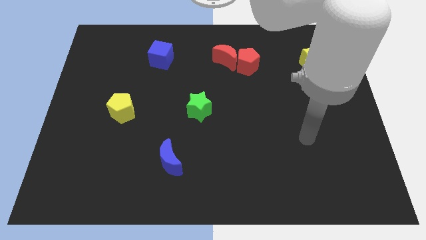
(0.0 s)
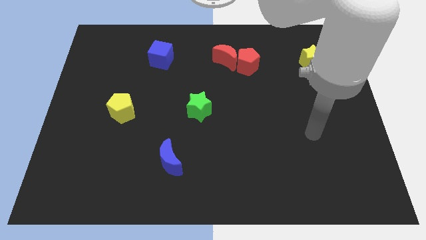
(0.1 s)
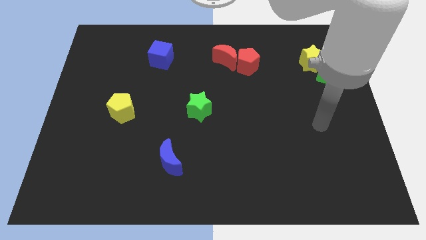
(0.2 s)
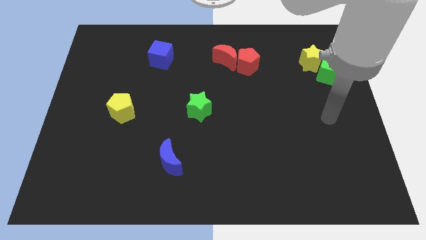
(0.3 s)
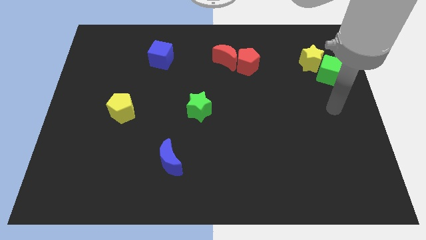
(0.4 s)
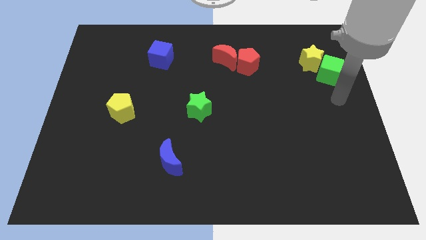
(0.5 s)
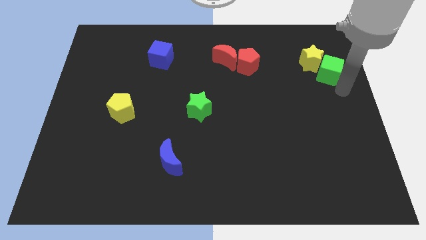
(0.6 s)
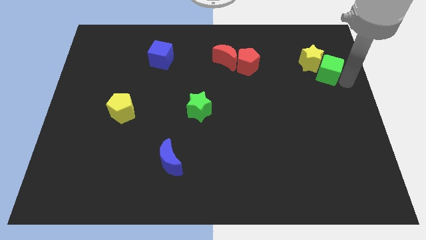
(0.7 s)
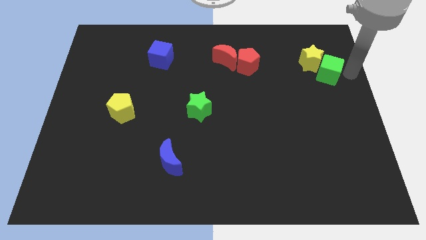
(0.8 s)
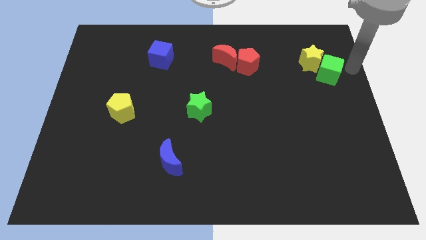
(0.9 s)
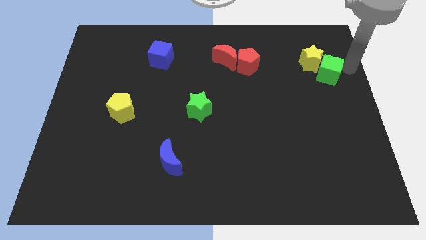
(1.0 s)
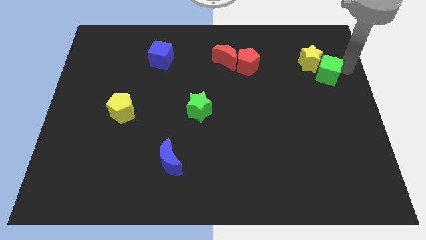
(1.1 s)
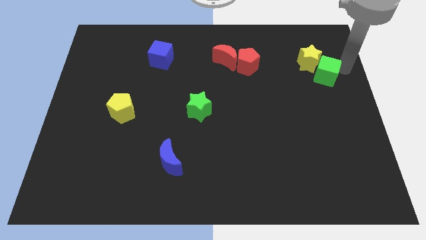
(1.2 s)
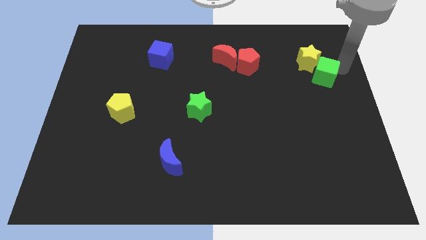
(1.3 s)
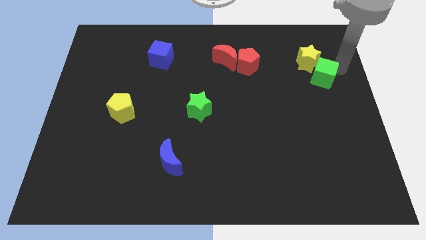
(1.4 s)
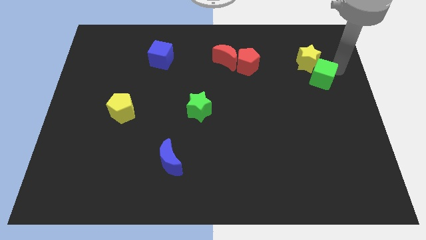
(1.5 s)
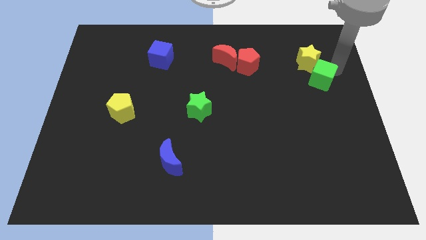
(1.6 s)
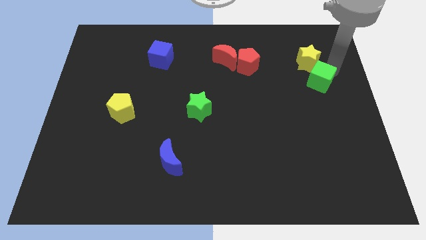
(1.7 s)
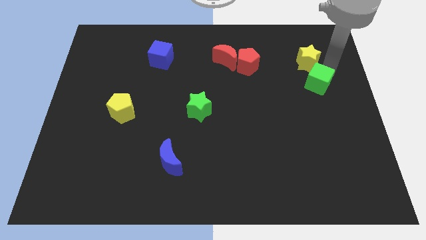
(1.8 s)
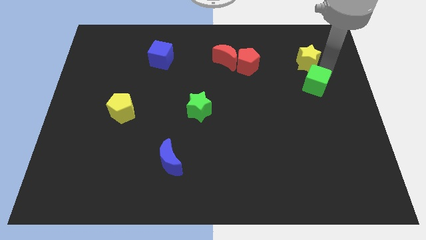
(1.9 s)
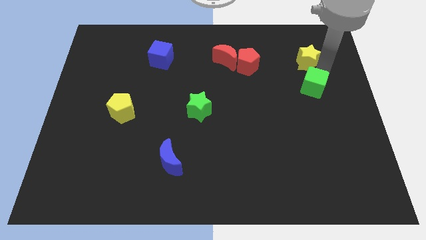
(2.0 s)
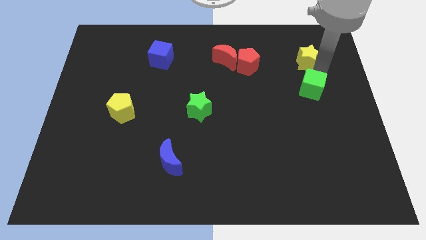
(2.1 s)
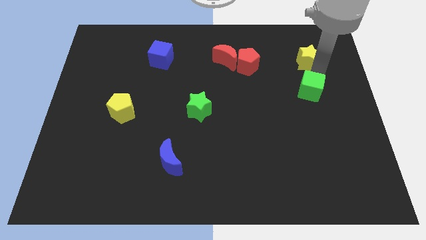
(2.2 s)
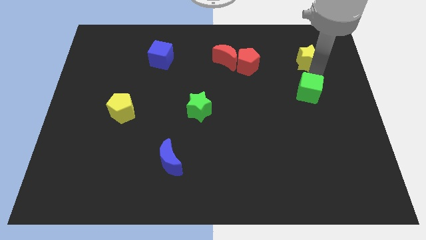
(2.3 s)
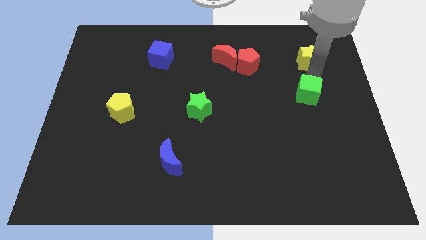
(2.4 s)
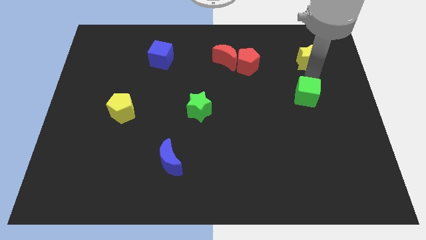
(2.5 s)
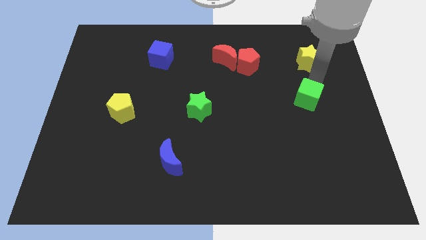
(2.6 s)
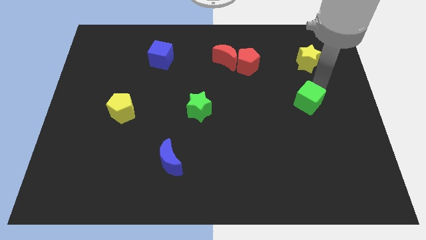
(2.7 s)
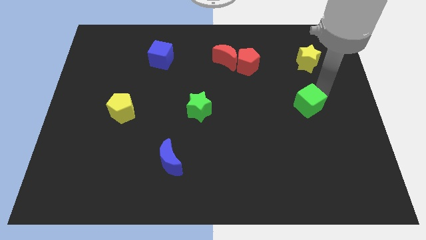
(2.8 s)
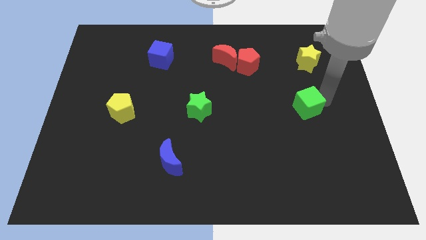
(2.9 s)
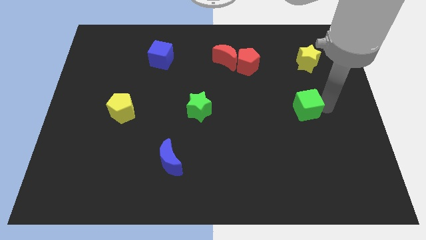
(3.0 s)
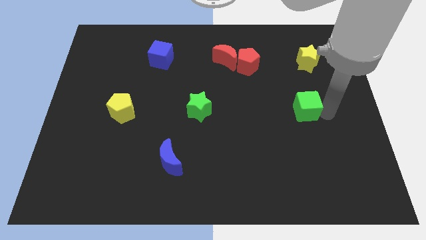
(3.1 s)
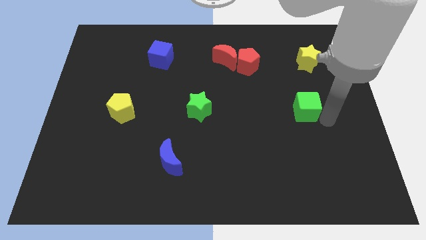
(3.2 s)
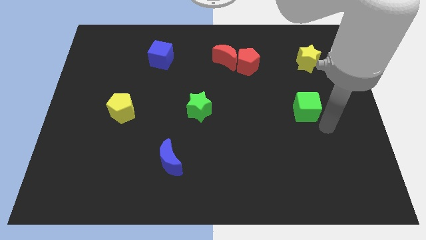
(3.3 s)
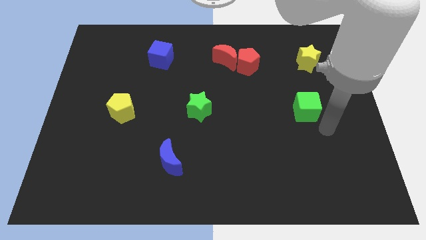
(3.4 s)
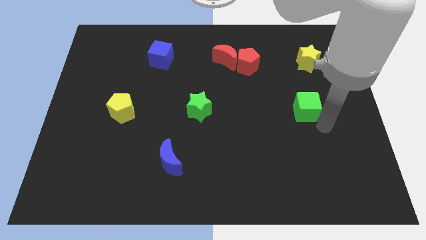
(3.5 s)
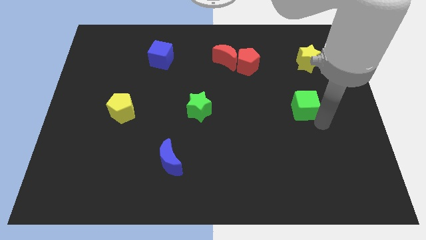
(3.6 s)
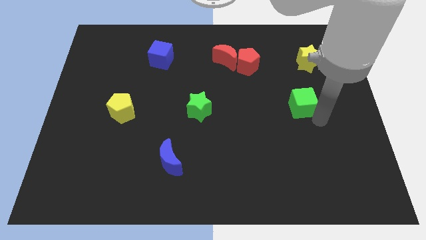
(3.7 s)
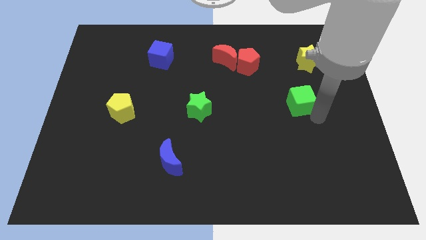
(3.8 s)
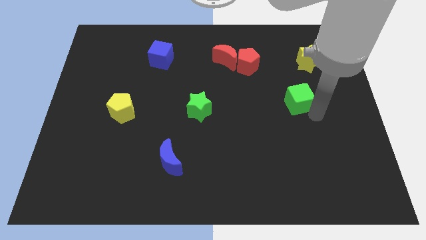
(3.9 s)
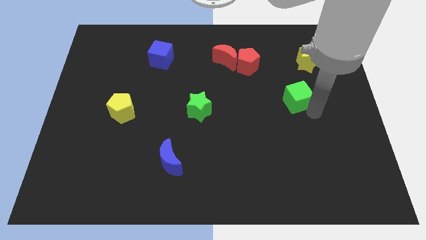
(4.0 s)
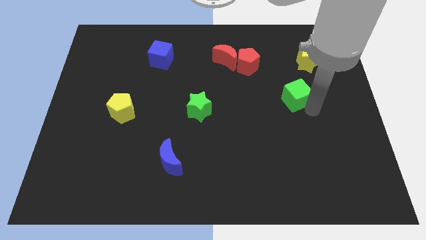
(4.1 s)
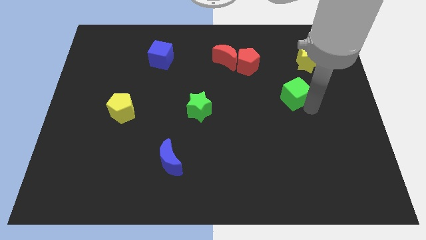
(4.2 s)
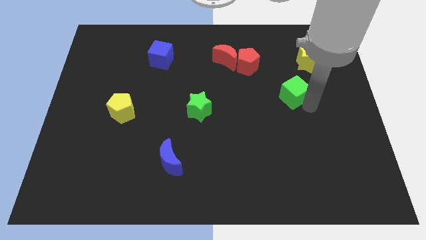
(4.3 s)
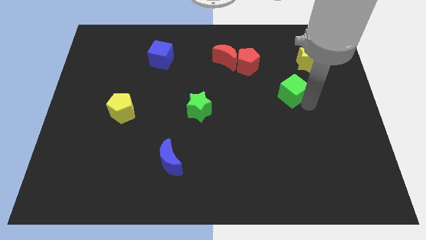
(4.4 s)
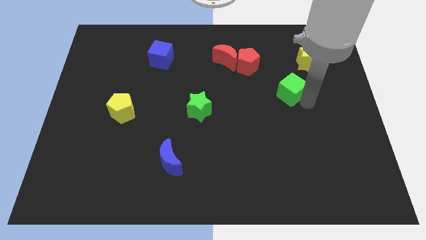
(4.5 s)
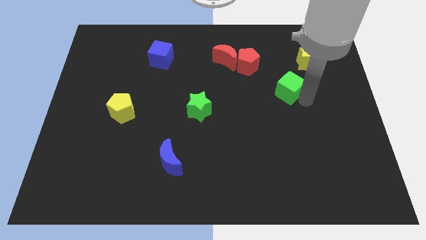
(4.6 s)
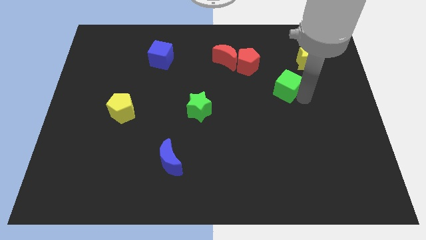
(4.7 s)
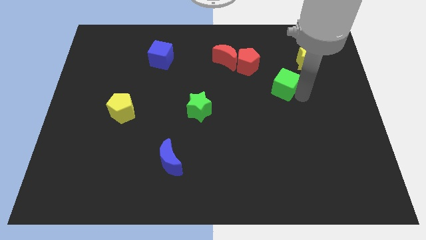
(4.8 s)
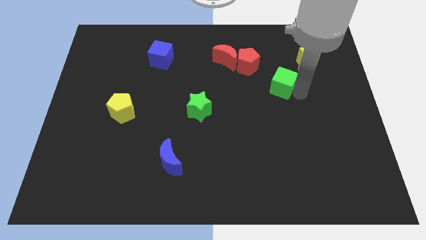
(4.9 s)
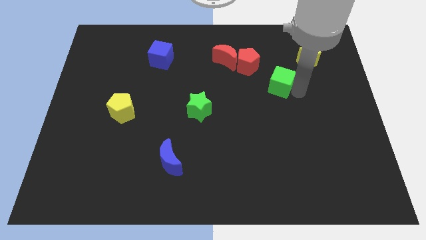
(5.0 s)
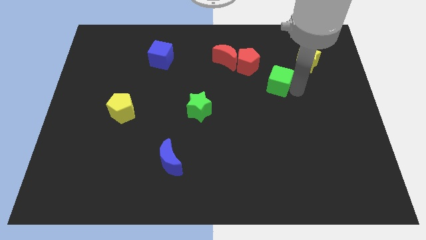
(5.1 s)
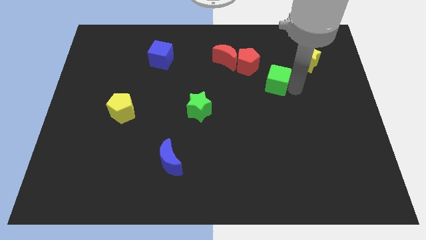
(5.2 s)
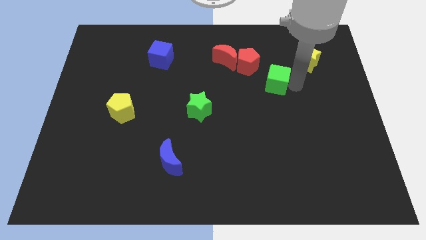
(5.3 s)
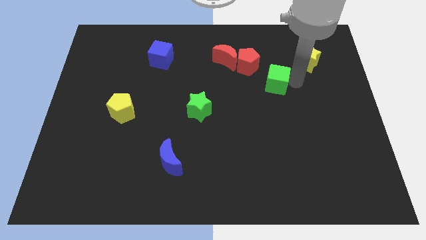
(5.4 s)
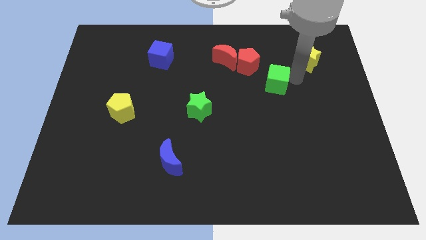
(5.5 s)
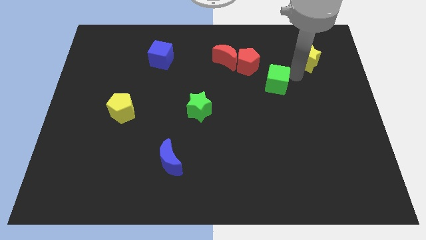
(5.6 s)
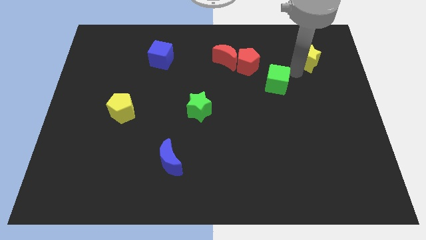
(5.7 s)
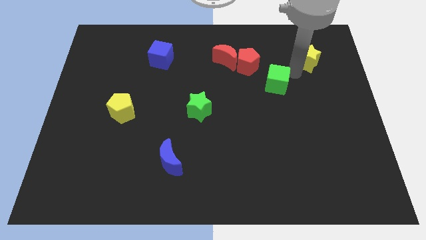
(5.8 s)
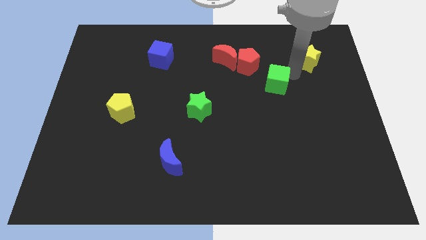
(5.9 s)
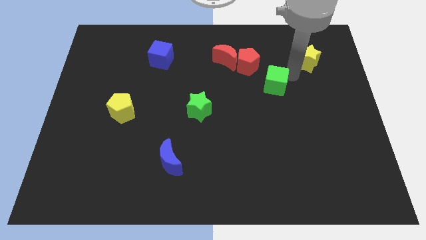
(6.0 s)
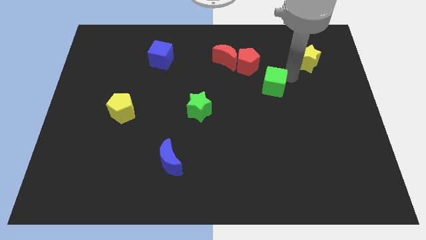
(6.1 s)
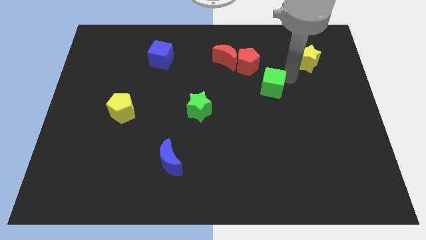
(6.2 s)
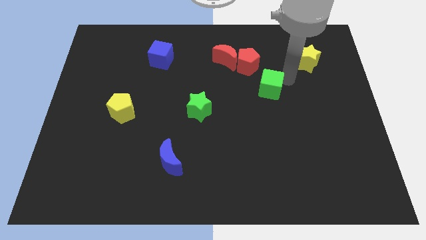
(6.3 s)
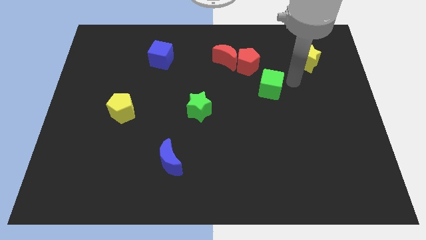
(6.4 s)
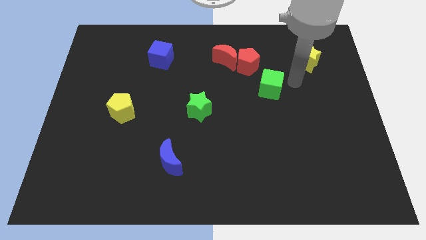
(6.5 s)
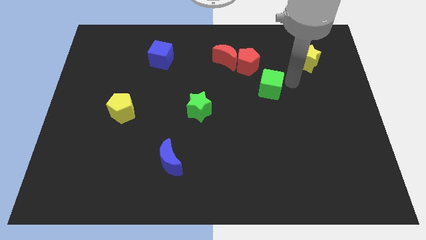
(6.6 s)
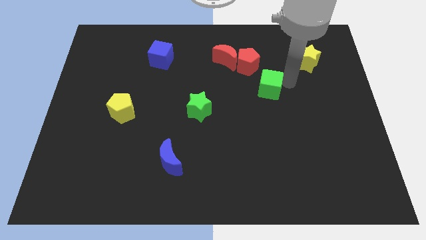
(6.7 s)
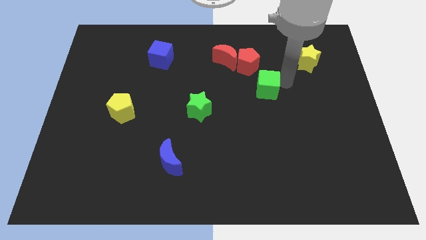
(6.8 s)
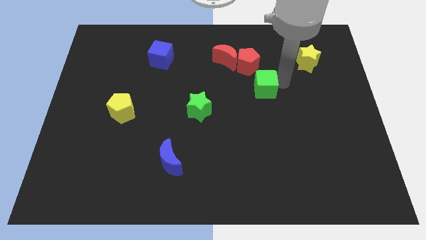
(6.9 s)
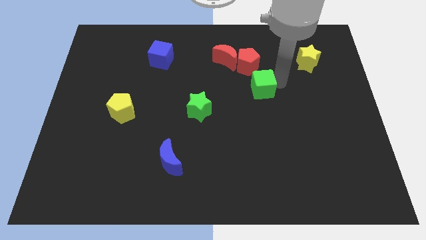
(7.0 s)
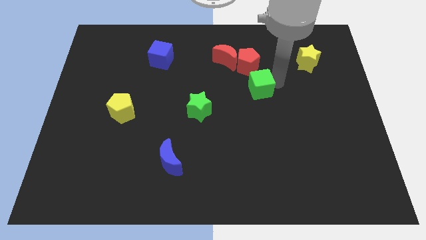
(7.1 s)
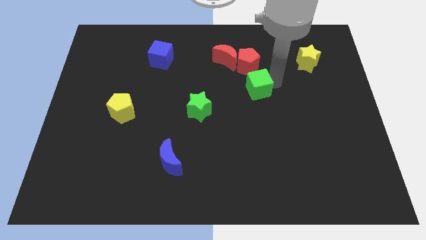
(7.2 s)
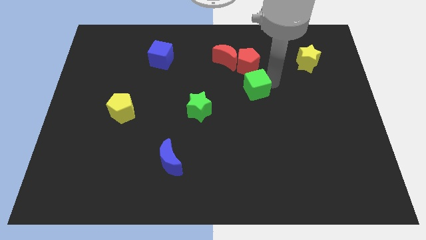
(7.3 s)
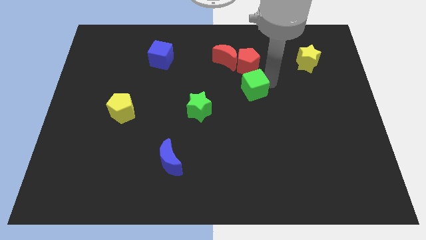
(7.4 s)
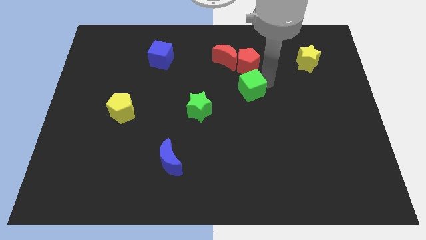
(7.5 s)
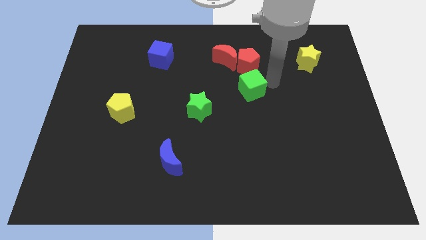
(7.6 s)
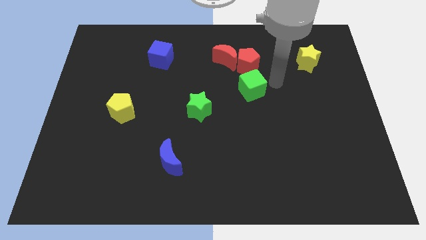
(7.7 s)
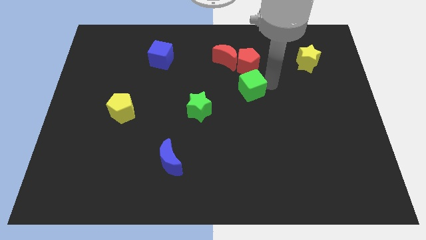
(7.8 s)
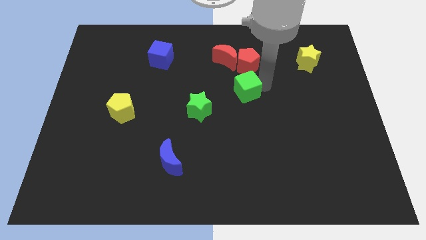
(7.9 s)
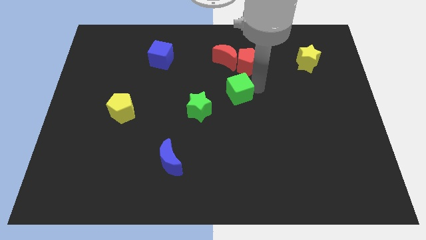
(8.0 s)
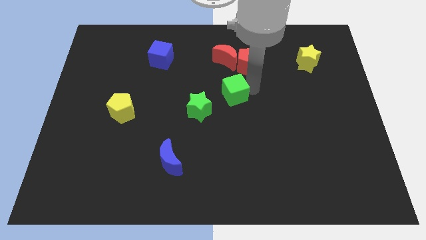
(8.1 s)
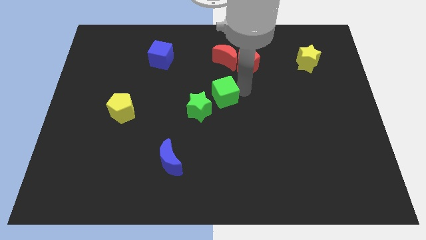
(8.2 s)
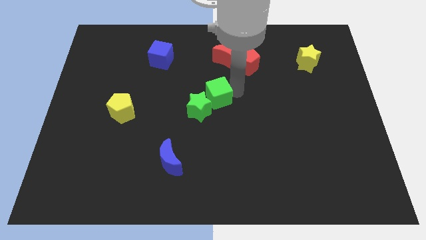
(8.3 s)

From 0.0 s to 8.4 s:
slide the green cube next to the green star
